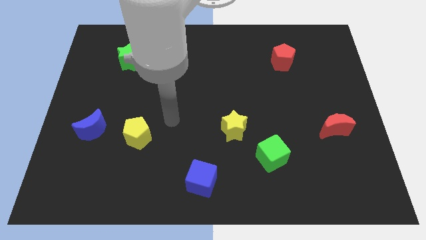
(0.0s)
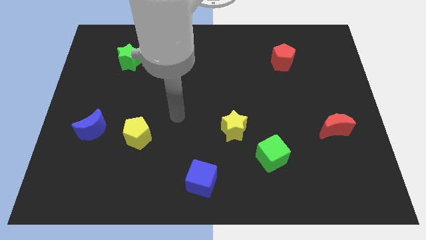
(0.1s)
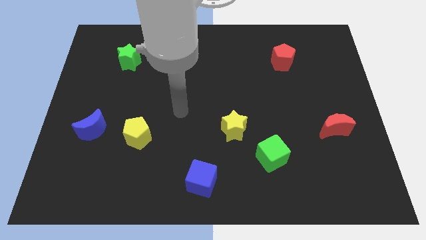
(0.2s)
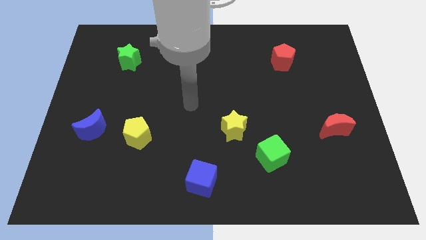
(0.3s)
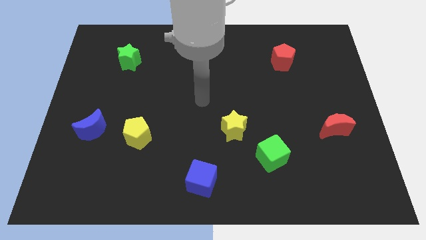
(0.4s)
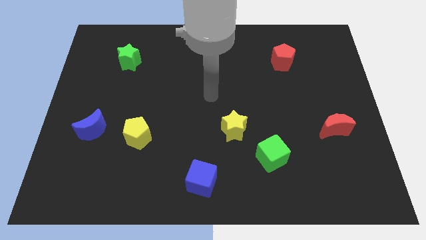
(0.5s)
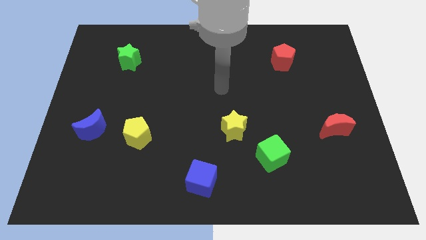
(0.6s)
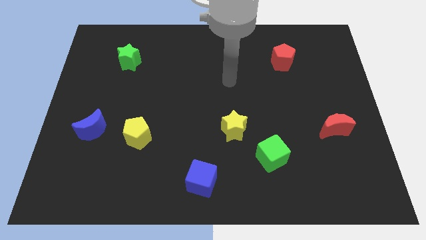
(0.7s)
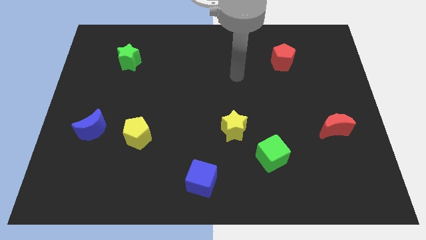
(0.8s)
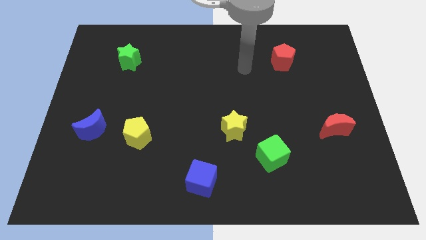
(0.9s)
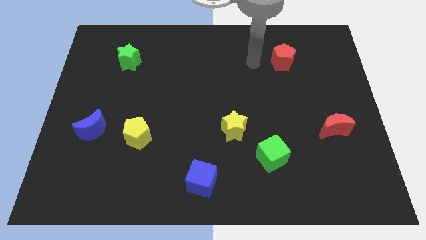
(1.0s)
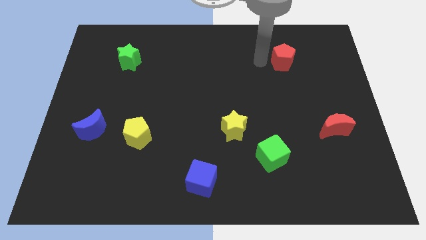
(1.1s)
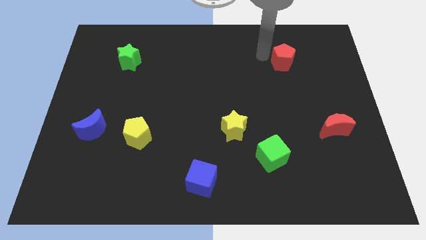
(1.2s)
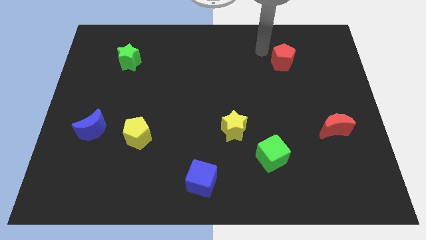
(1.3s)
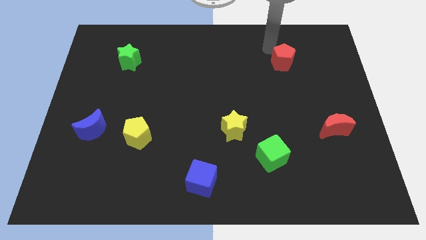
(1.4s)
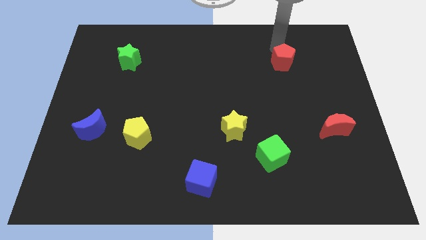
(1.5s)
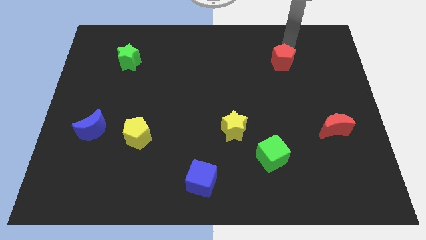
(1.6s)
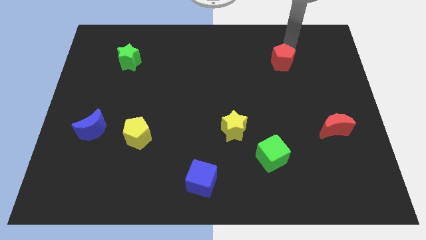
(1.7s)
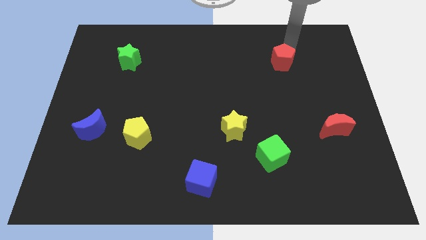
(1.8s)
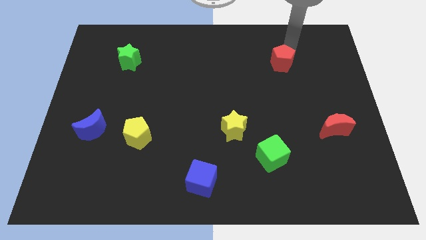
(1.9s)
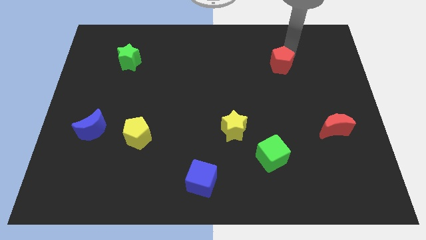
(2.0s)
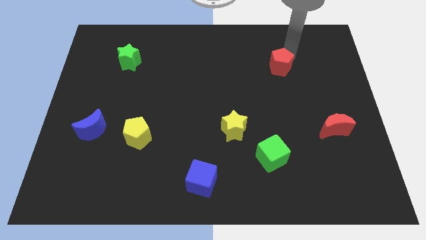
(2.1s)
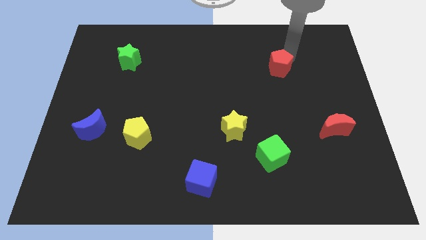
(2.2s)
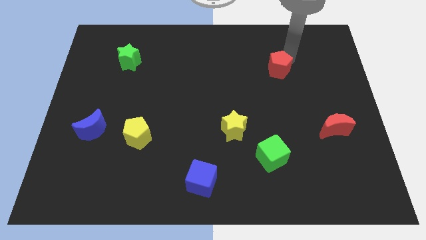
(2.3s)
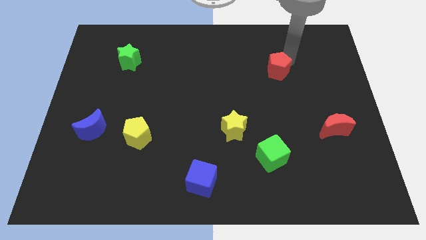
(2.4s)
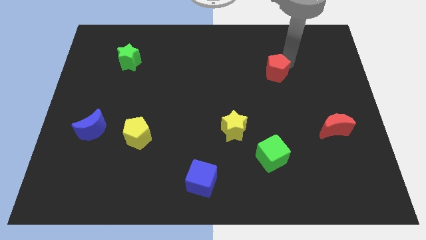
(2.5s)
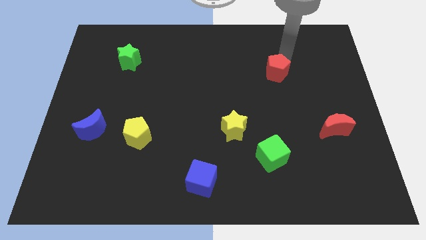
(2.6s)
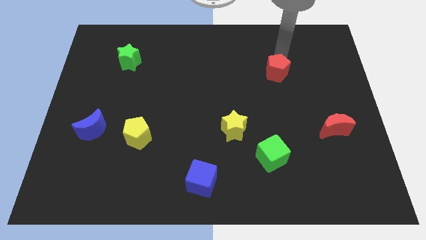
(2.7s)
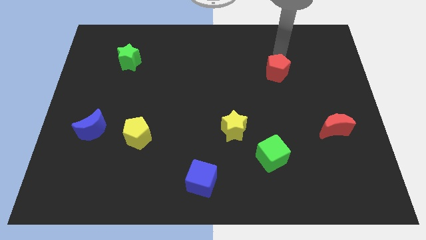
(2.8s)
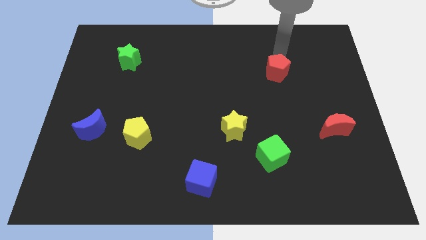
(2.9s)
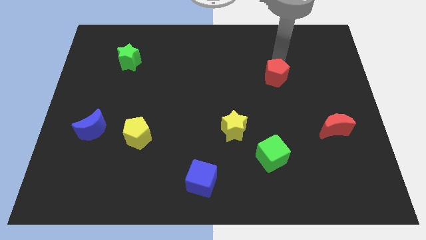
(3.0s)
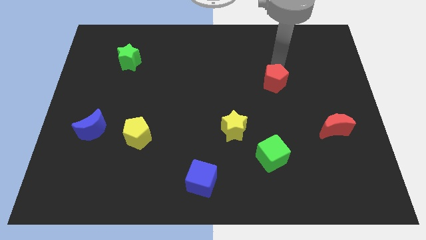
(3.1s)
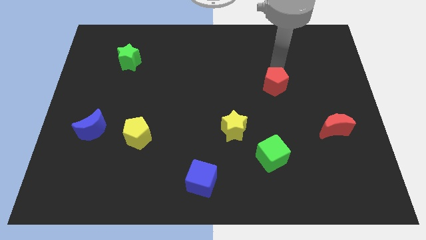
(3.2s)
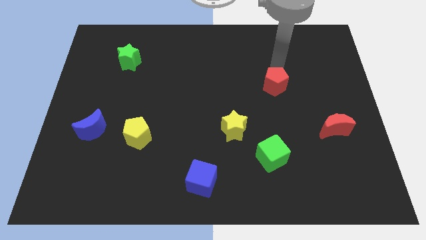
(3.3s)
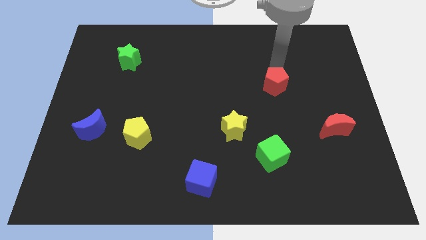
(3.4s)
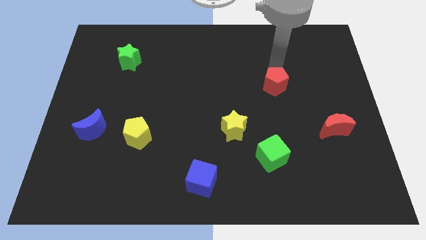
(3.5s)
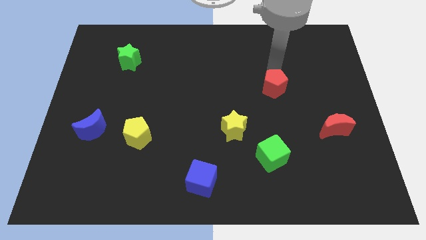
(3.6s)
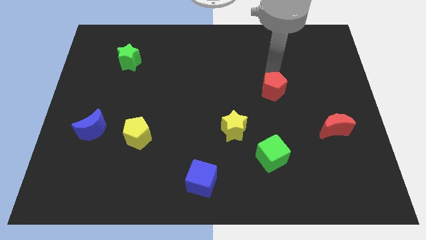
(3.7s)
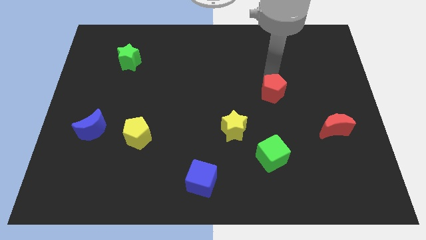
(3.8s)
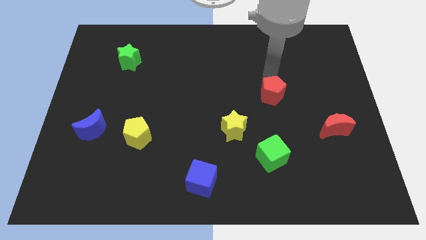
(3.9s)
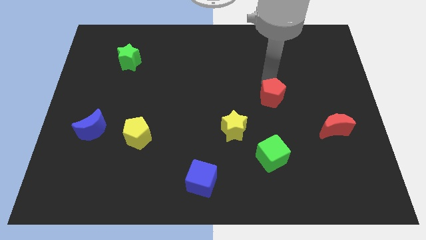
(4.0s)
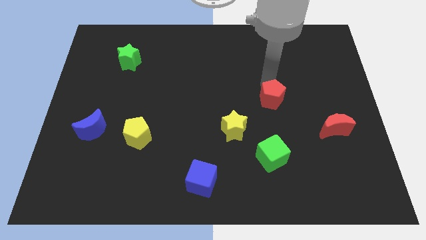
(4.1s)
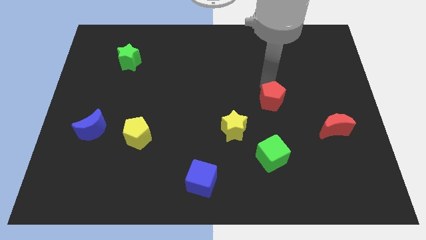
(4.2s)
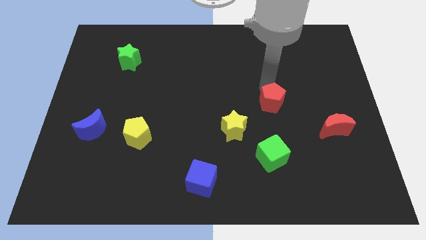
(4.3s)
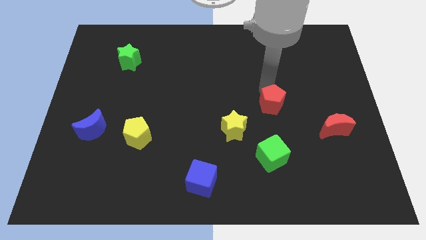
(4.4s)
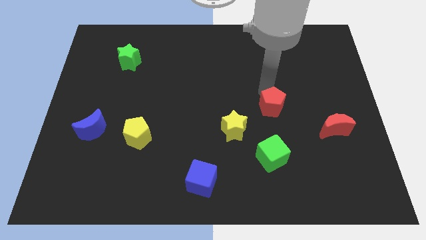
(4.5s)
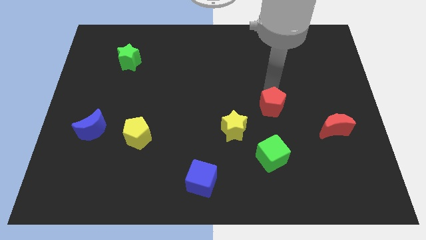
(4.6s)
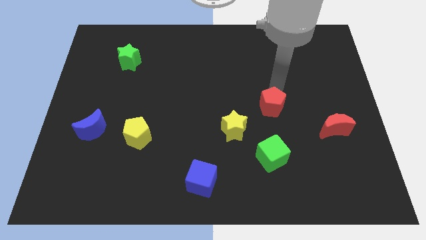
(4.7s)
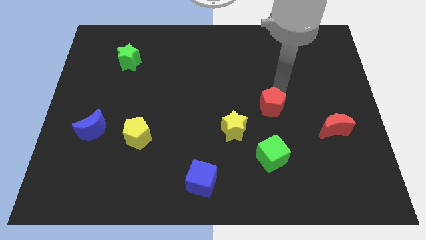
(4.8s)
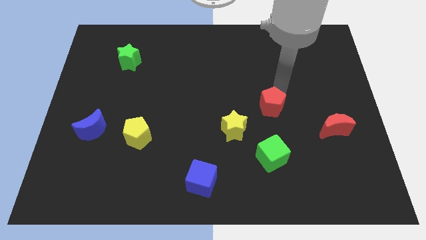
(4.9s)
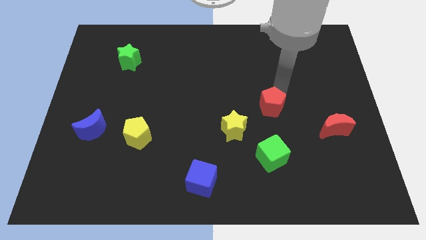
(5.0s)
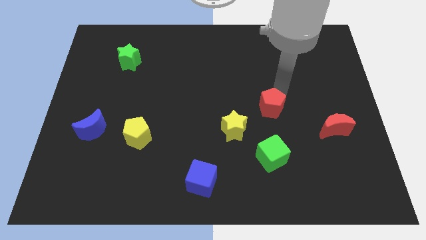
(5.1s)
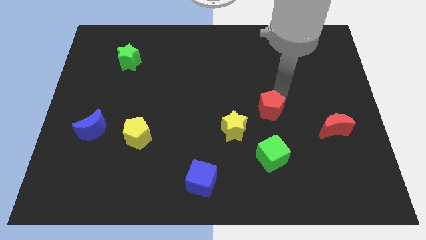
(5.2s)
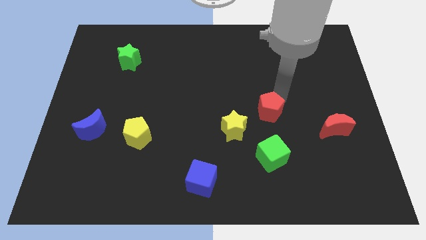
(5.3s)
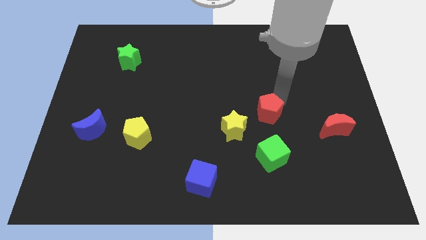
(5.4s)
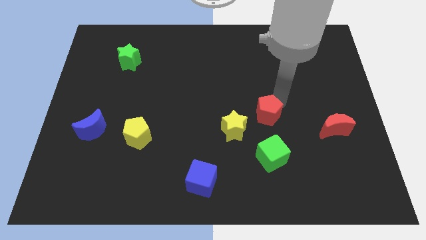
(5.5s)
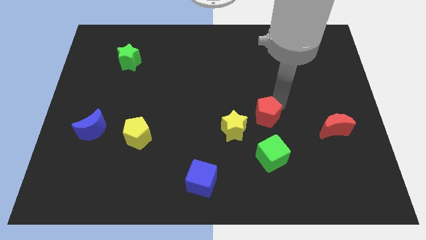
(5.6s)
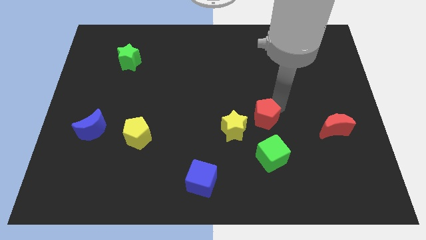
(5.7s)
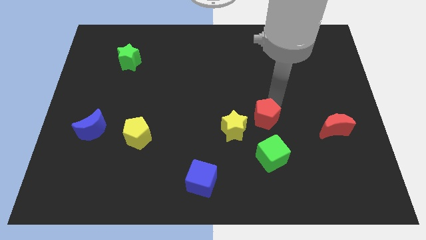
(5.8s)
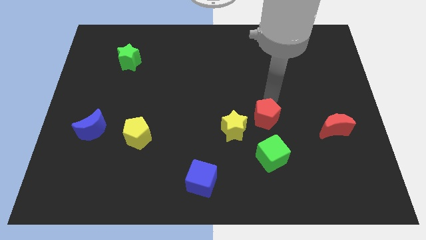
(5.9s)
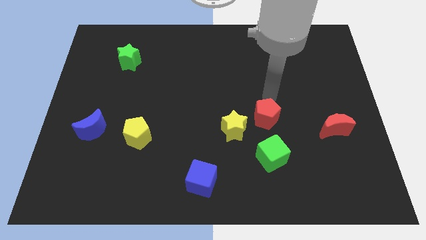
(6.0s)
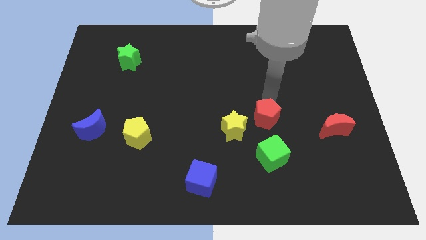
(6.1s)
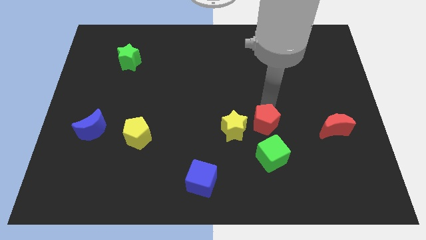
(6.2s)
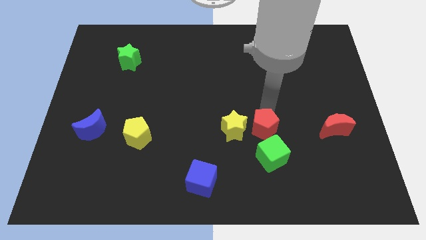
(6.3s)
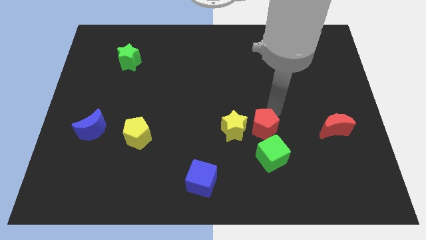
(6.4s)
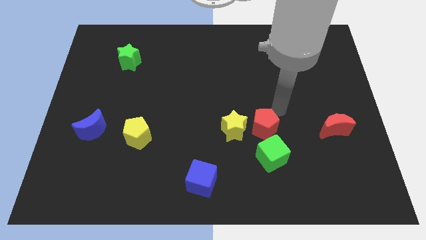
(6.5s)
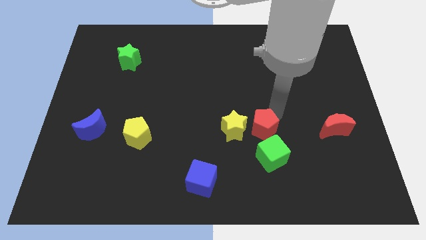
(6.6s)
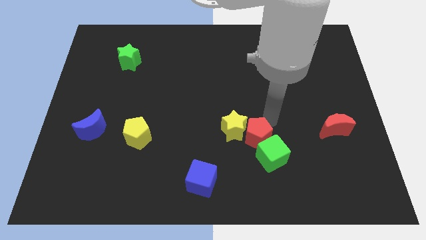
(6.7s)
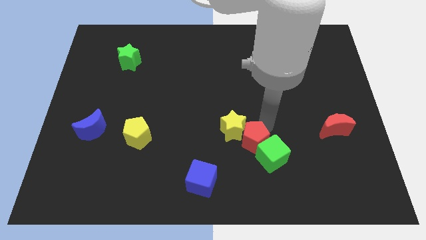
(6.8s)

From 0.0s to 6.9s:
put the red pentagon just left of the green cube

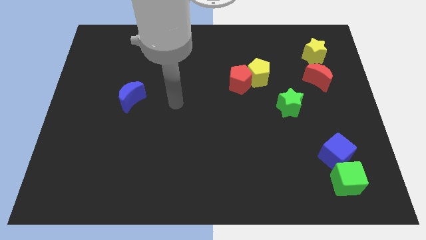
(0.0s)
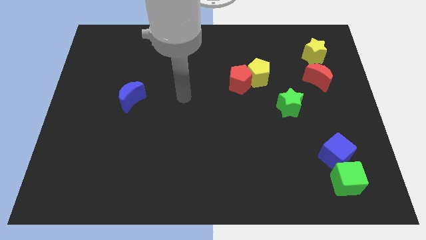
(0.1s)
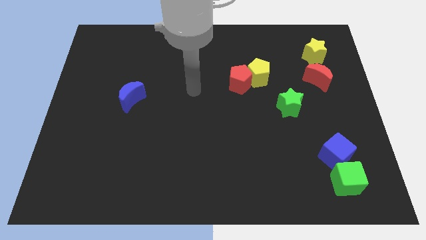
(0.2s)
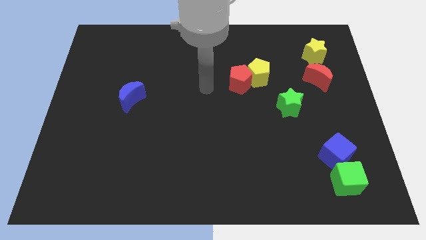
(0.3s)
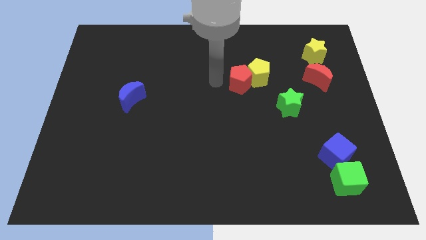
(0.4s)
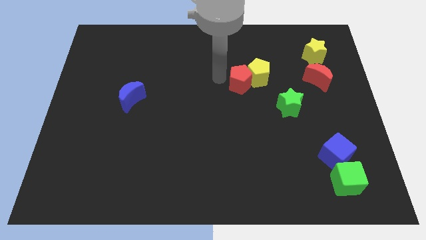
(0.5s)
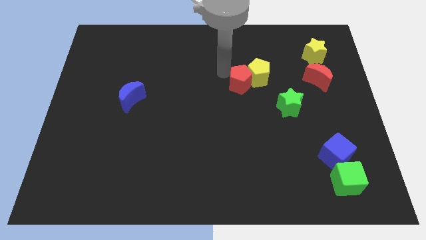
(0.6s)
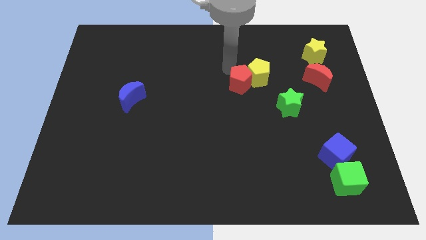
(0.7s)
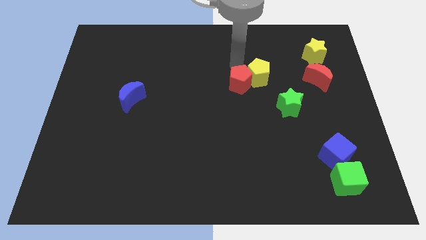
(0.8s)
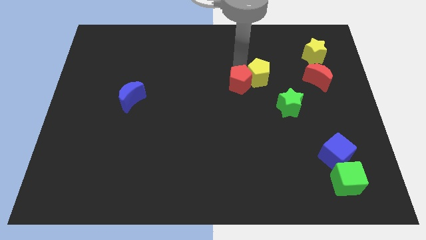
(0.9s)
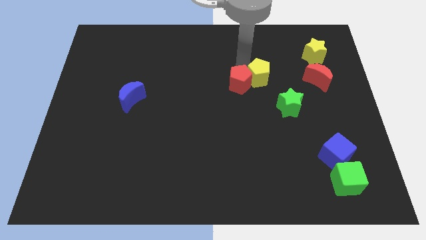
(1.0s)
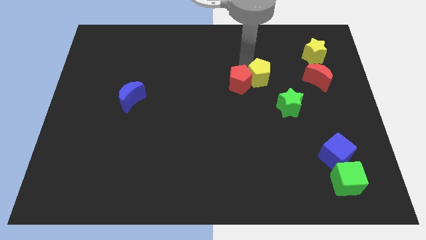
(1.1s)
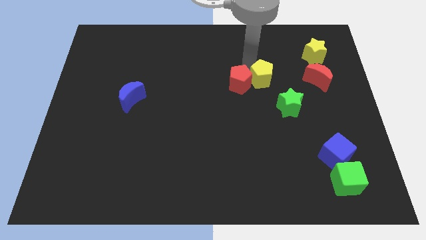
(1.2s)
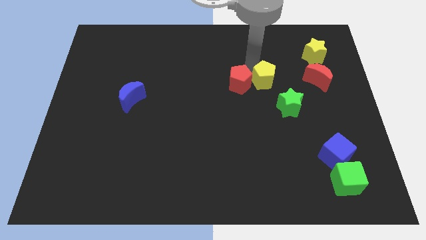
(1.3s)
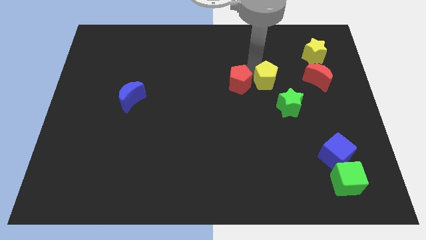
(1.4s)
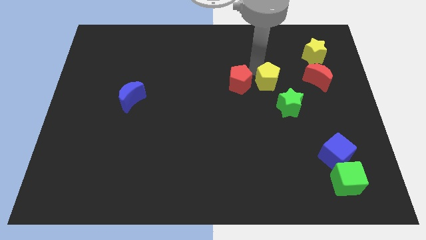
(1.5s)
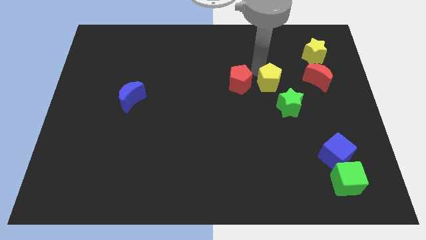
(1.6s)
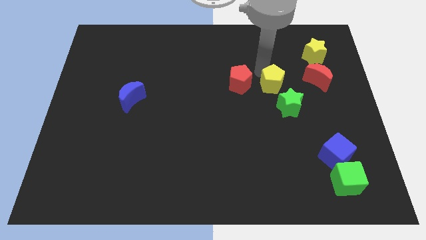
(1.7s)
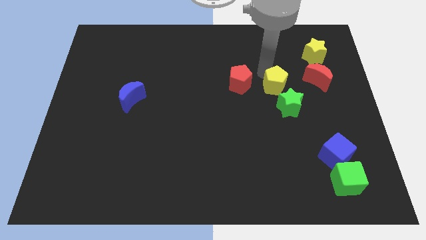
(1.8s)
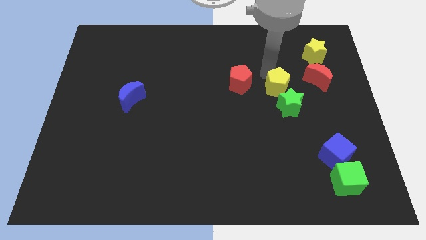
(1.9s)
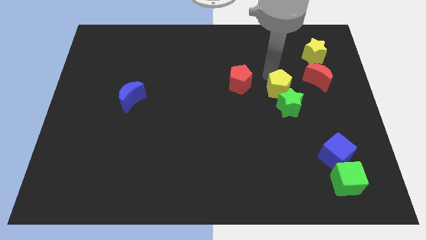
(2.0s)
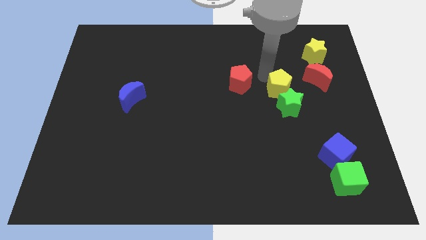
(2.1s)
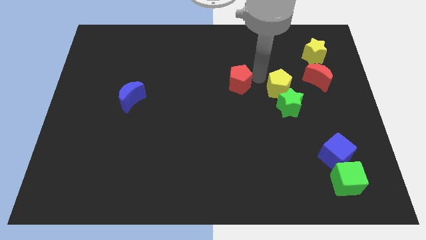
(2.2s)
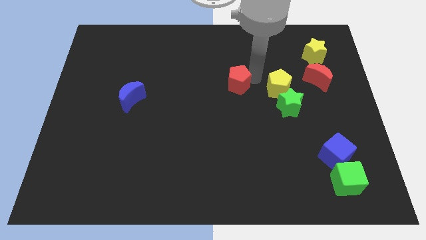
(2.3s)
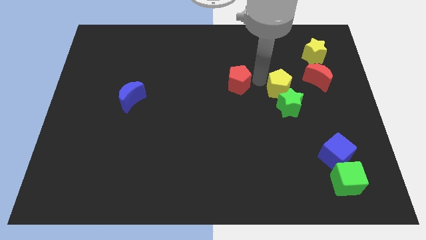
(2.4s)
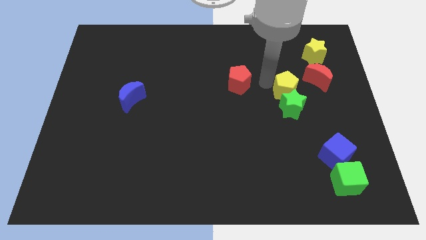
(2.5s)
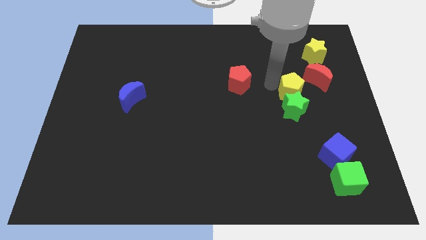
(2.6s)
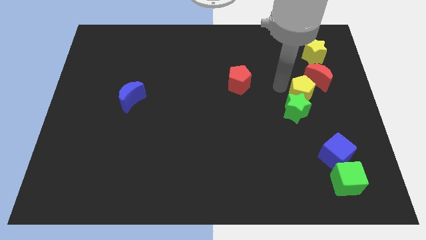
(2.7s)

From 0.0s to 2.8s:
push the yellow pentagon to the bottom side of the red moon
